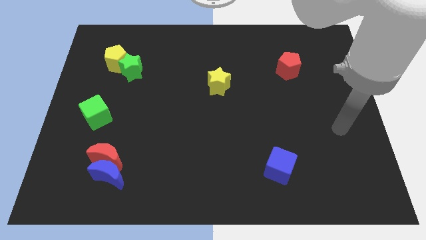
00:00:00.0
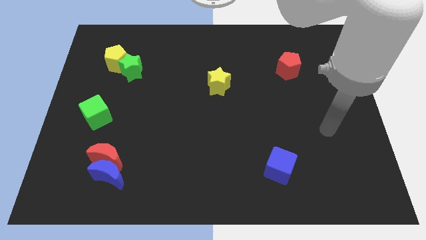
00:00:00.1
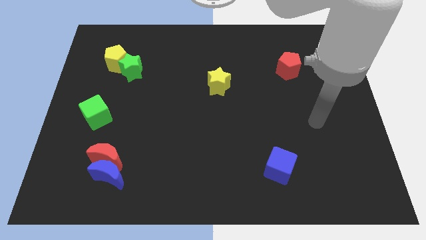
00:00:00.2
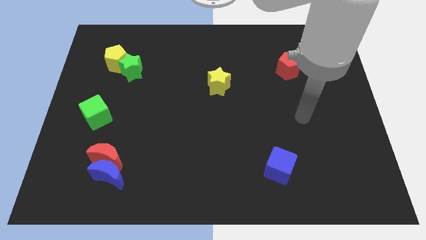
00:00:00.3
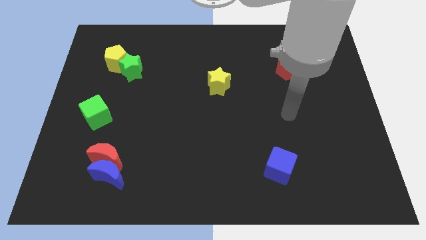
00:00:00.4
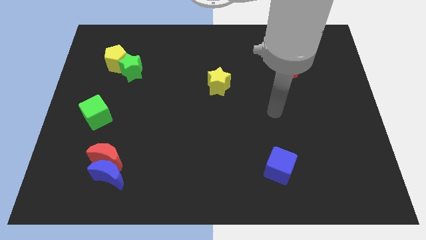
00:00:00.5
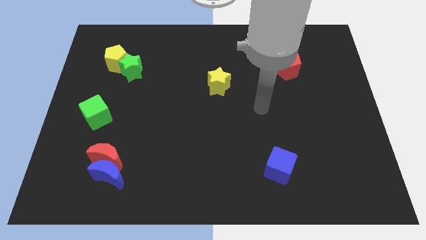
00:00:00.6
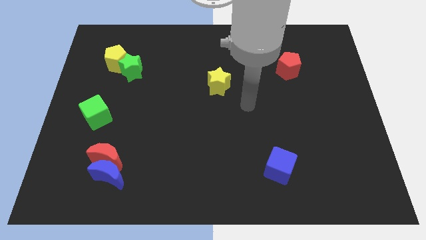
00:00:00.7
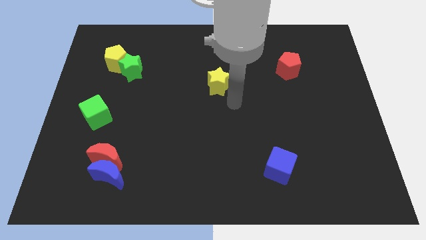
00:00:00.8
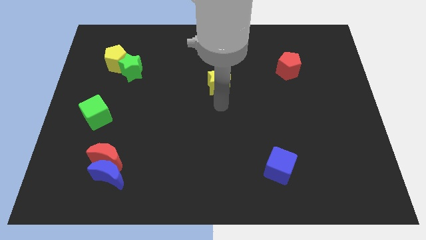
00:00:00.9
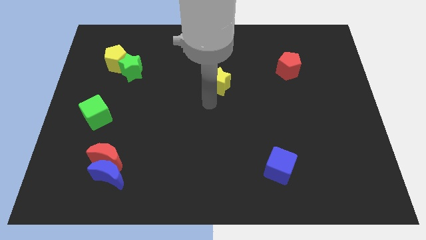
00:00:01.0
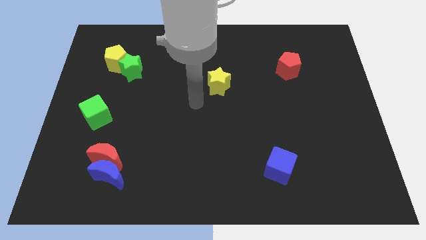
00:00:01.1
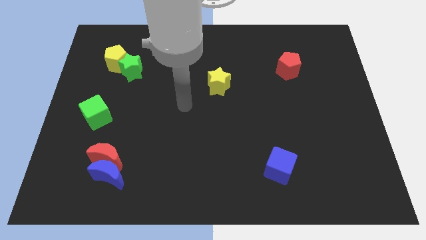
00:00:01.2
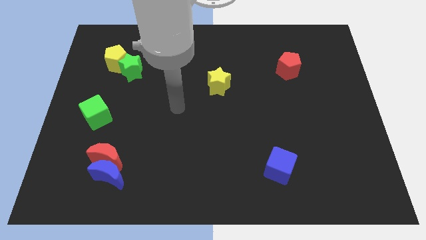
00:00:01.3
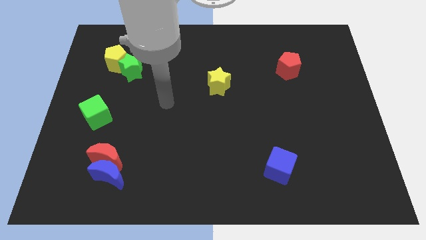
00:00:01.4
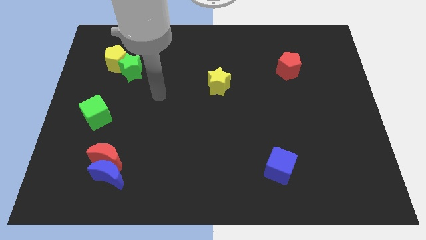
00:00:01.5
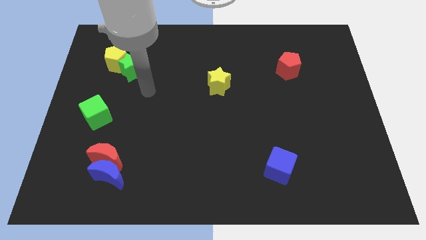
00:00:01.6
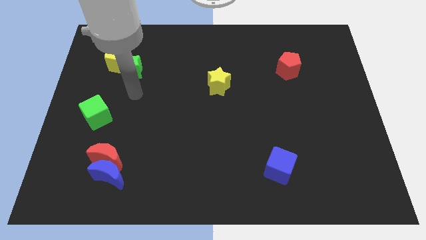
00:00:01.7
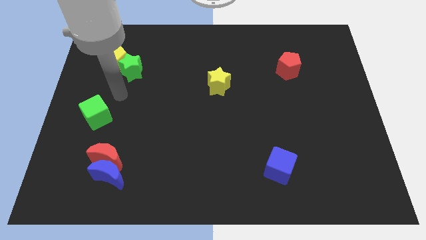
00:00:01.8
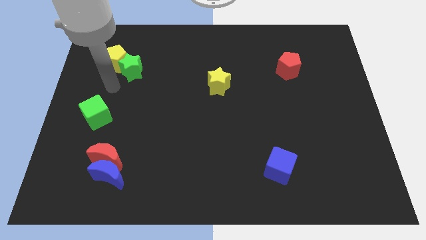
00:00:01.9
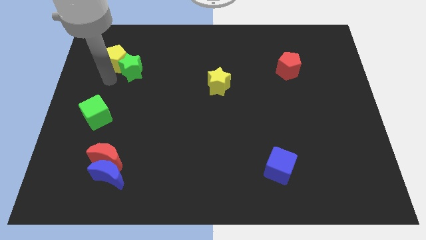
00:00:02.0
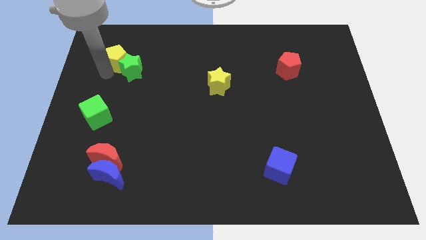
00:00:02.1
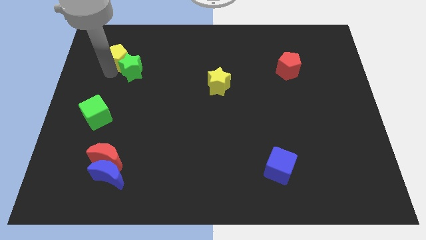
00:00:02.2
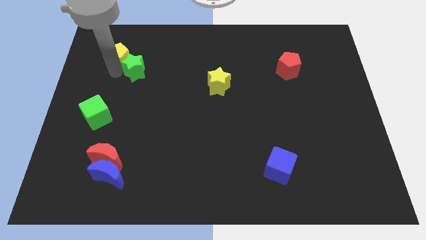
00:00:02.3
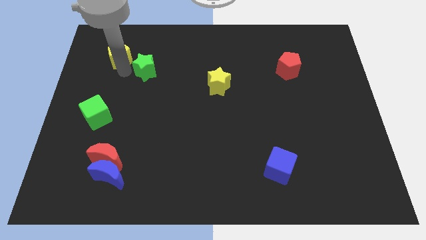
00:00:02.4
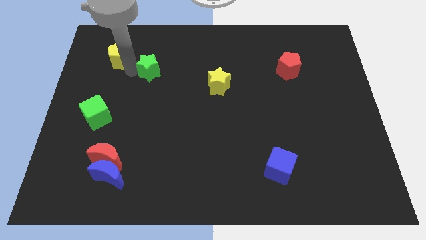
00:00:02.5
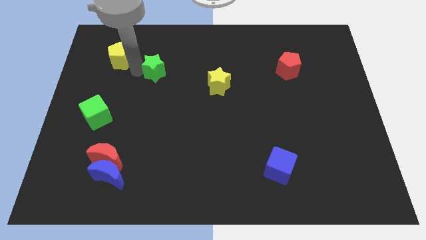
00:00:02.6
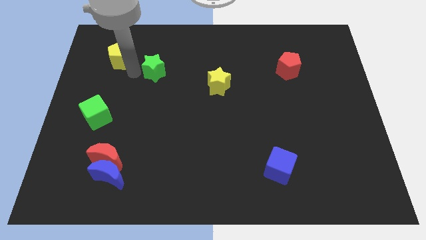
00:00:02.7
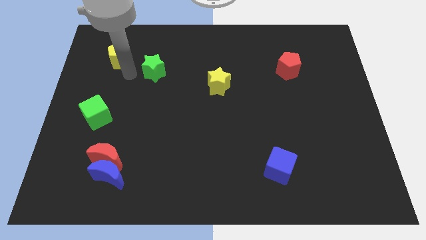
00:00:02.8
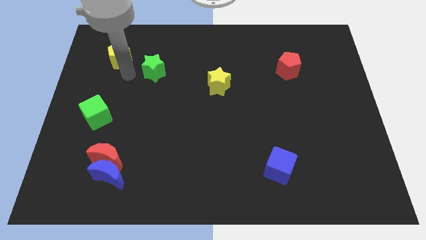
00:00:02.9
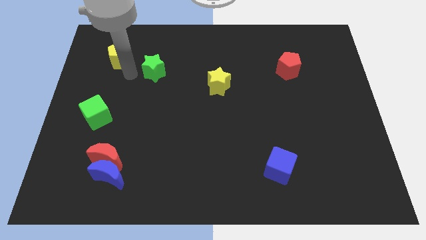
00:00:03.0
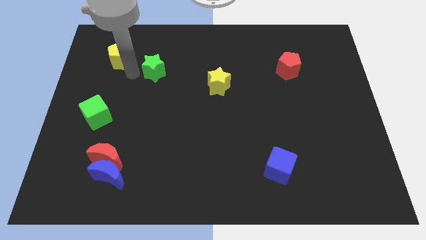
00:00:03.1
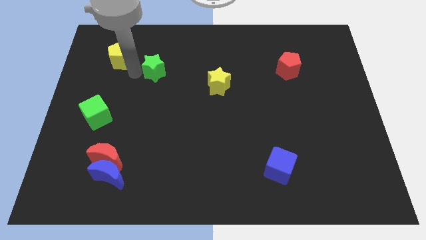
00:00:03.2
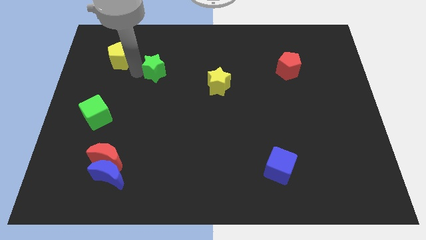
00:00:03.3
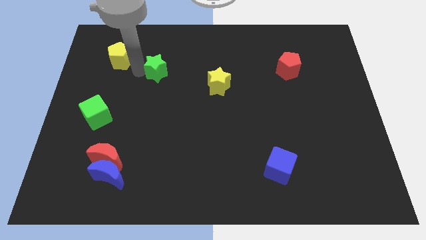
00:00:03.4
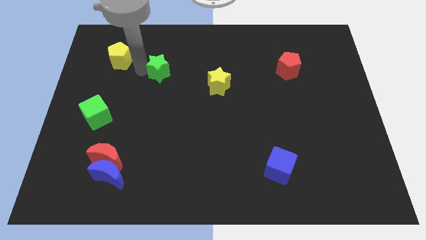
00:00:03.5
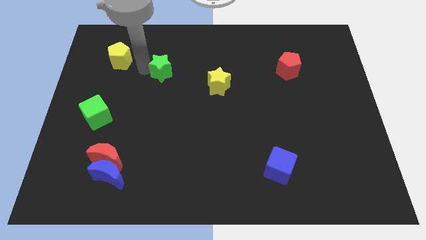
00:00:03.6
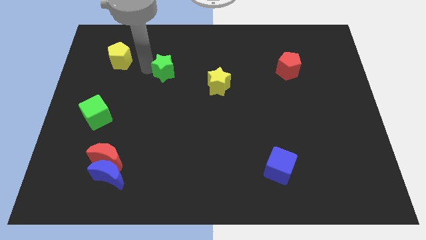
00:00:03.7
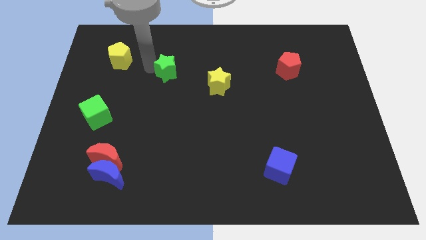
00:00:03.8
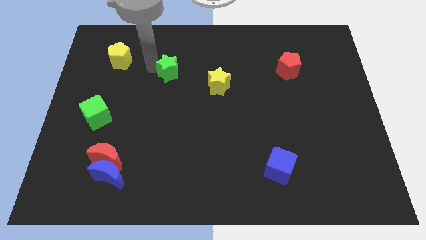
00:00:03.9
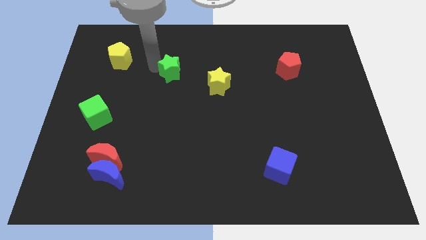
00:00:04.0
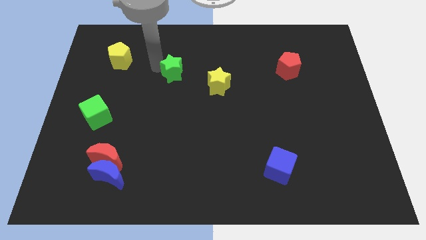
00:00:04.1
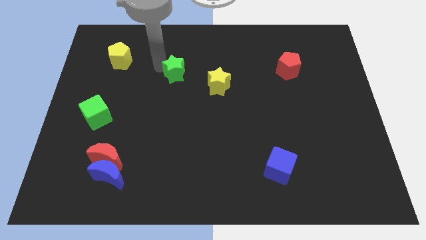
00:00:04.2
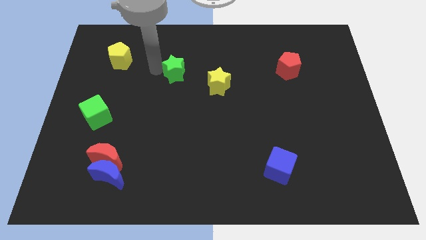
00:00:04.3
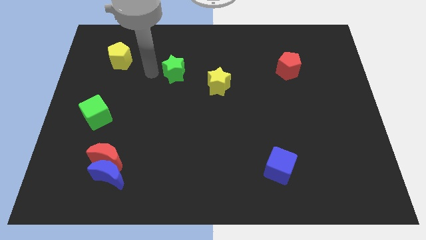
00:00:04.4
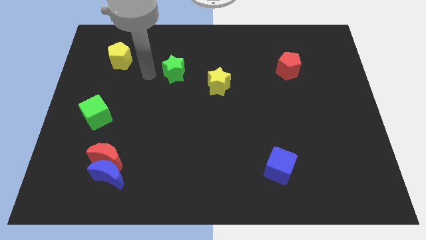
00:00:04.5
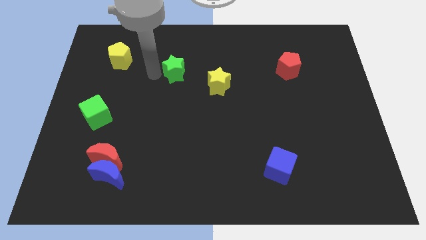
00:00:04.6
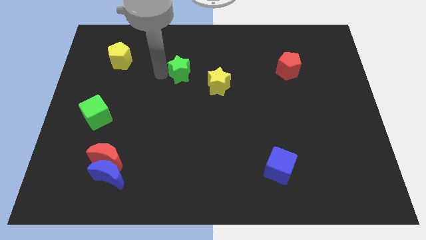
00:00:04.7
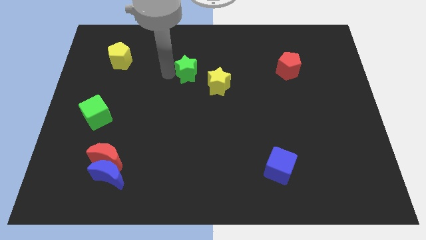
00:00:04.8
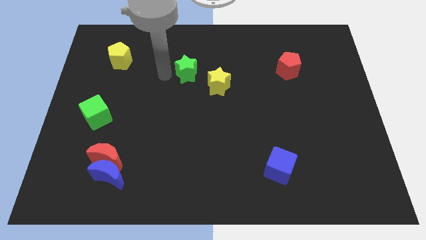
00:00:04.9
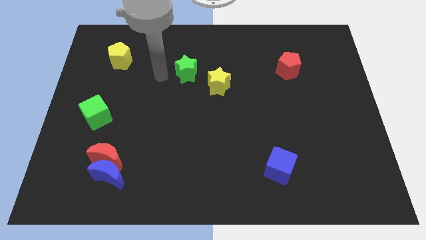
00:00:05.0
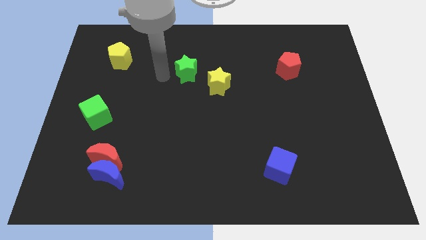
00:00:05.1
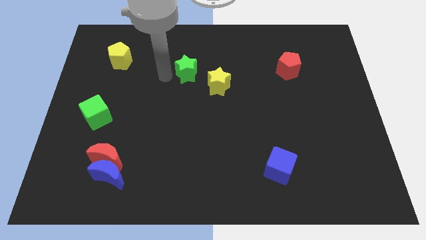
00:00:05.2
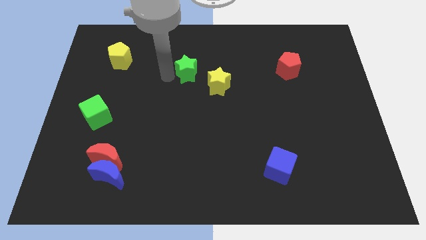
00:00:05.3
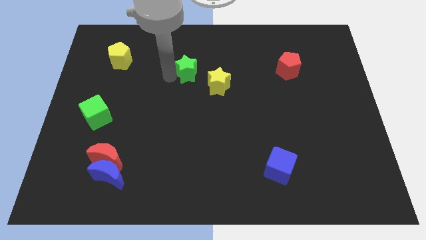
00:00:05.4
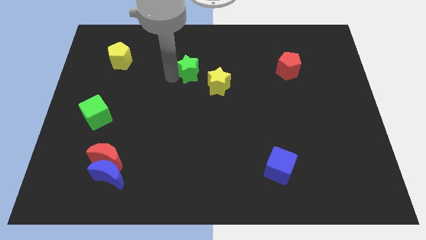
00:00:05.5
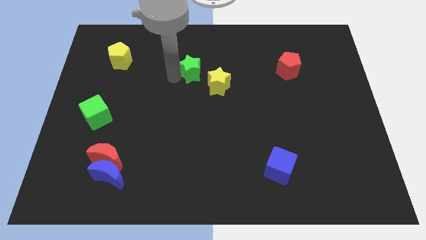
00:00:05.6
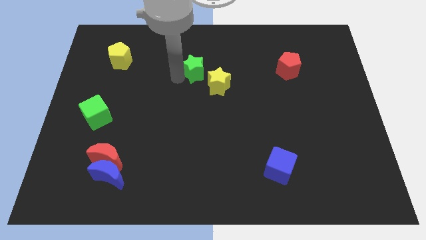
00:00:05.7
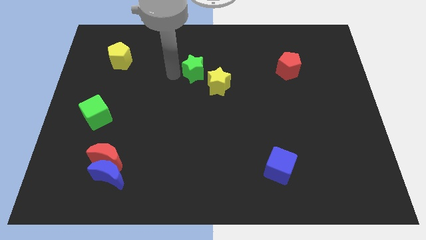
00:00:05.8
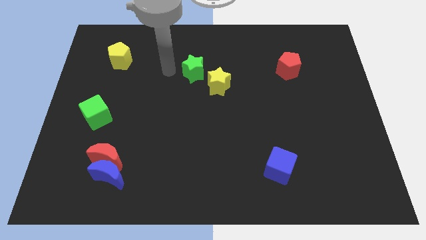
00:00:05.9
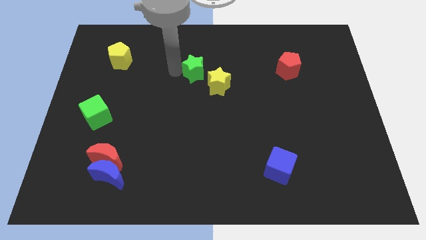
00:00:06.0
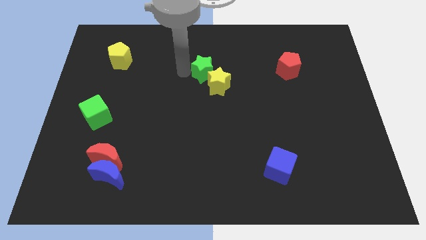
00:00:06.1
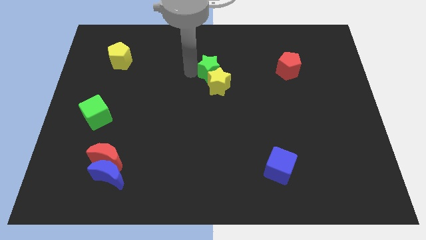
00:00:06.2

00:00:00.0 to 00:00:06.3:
slide the green star right

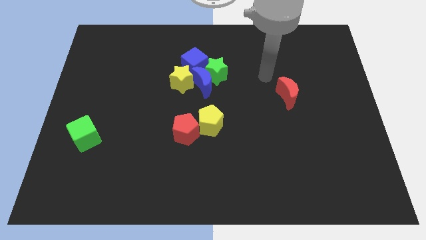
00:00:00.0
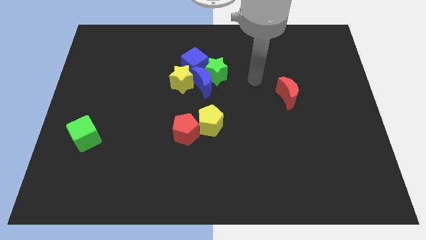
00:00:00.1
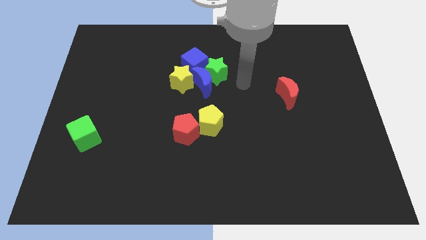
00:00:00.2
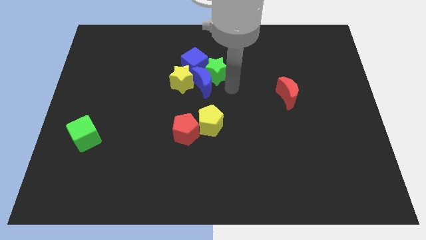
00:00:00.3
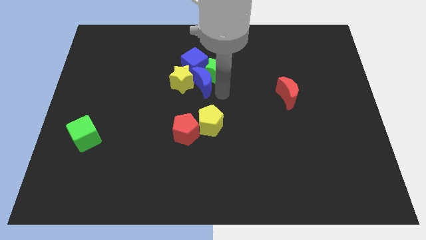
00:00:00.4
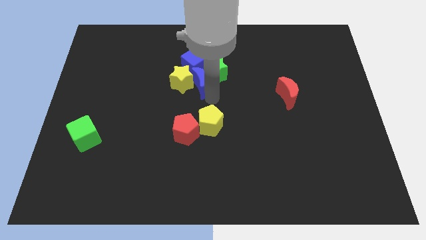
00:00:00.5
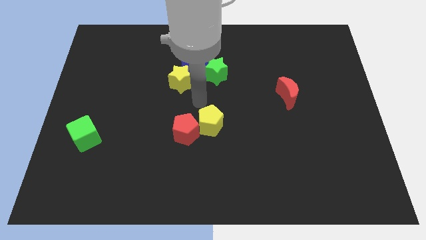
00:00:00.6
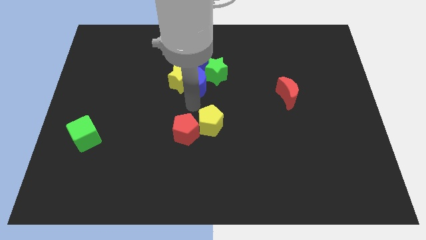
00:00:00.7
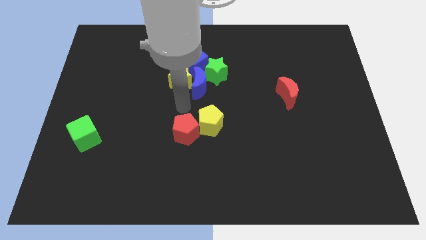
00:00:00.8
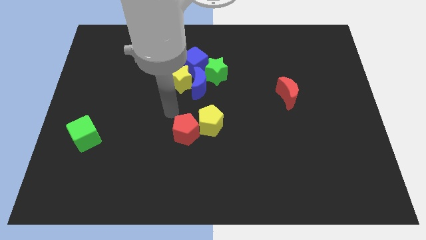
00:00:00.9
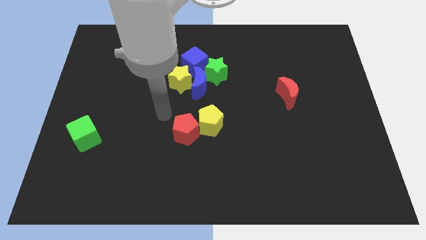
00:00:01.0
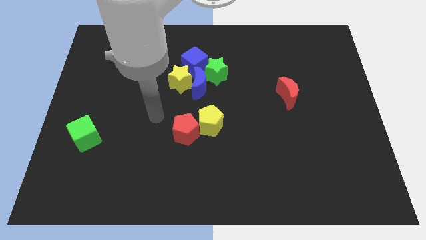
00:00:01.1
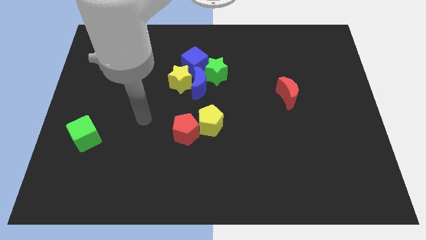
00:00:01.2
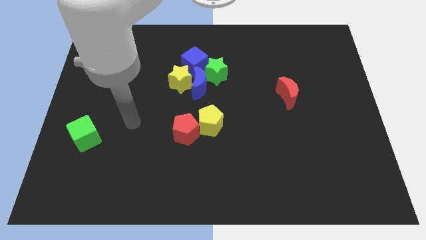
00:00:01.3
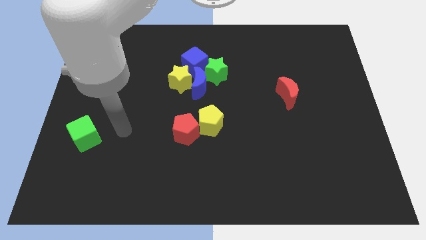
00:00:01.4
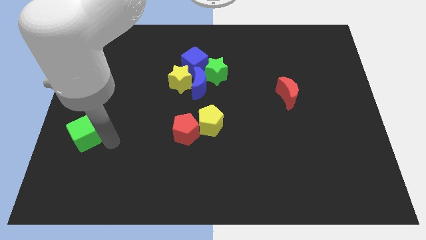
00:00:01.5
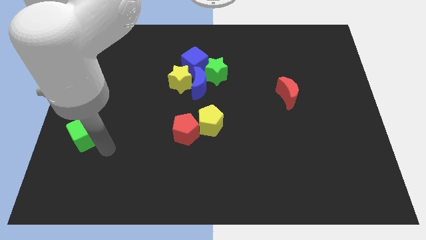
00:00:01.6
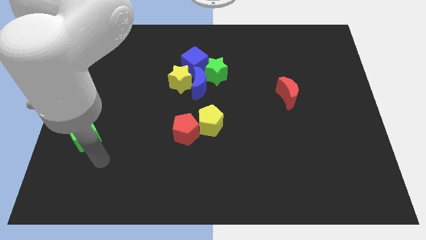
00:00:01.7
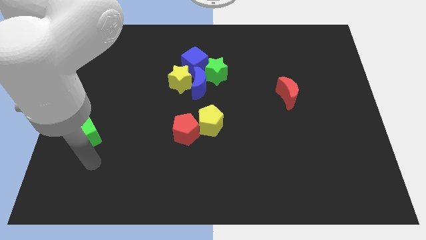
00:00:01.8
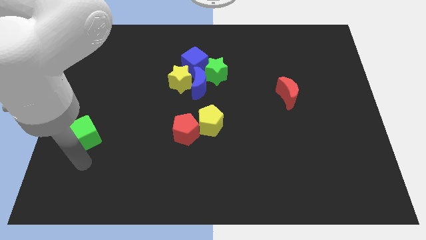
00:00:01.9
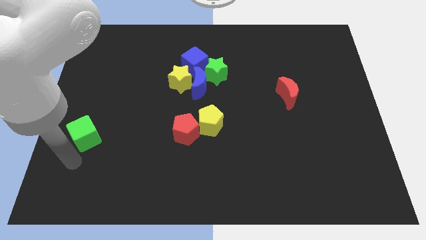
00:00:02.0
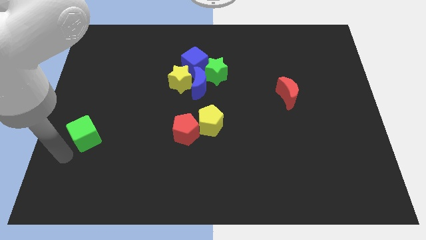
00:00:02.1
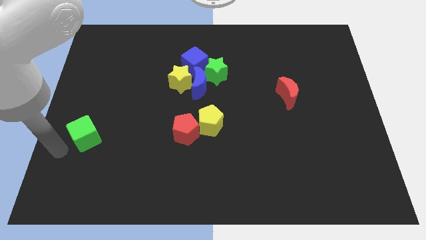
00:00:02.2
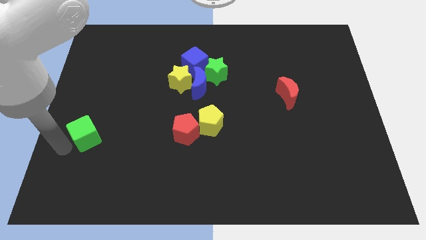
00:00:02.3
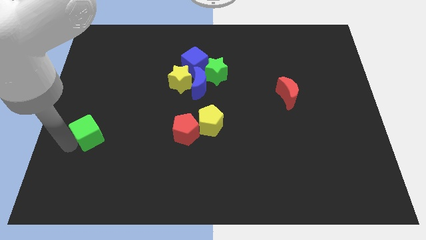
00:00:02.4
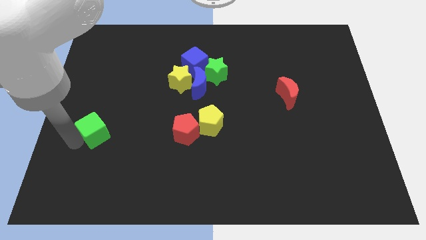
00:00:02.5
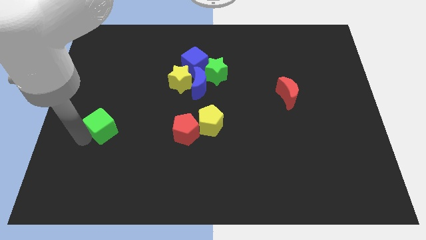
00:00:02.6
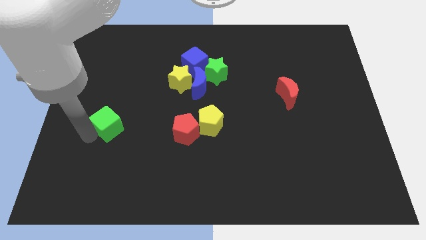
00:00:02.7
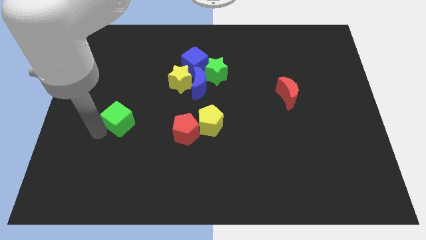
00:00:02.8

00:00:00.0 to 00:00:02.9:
slightly push the green cube diagonally up and to the right
